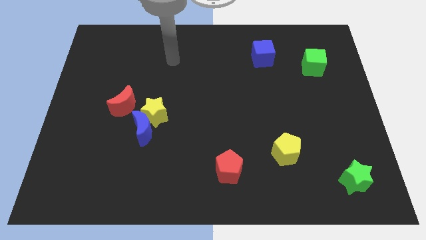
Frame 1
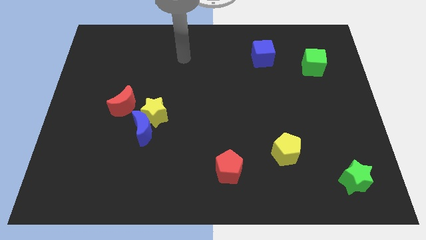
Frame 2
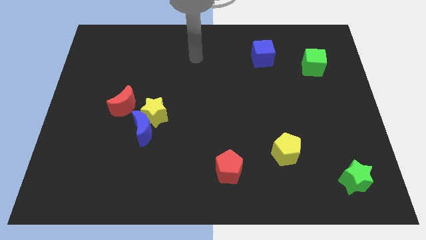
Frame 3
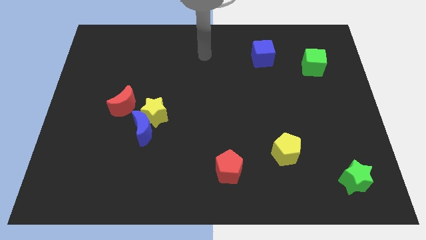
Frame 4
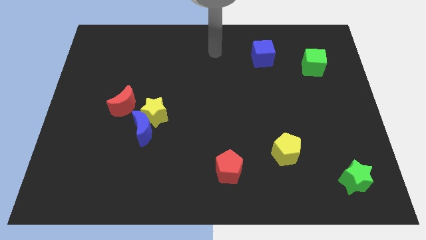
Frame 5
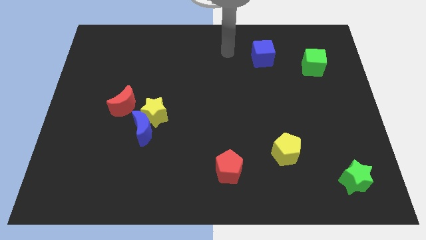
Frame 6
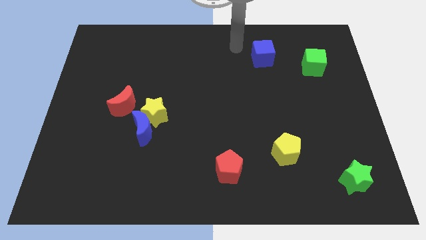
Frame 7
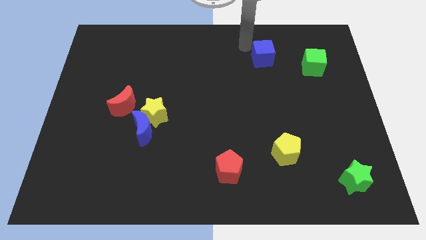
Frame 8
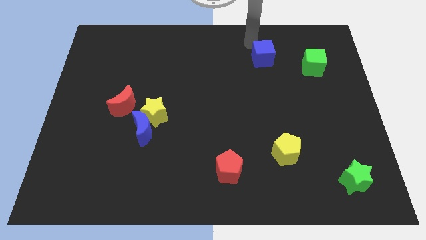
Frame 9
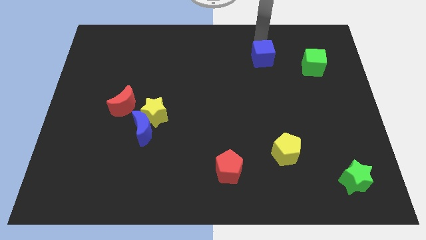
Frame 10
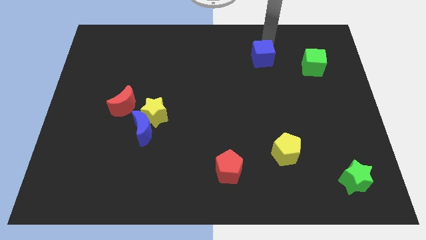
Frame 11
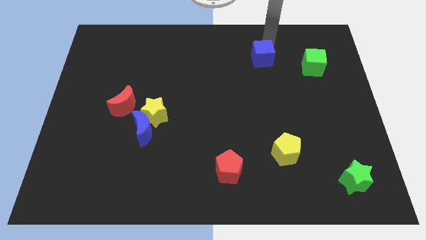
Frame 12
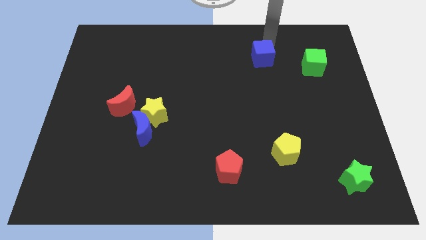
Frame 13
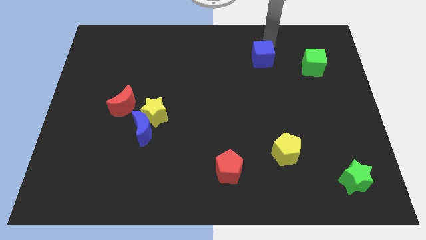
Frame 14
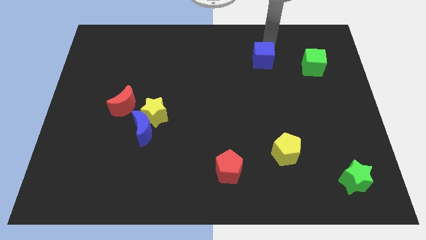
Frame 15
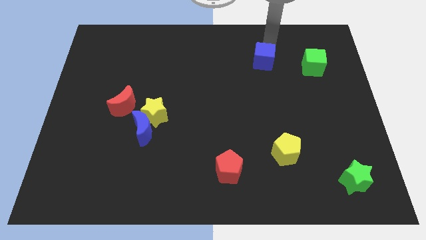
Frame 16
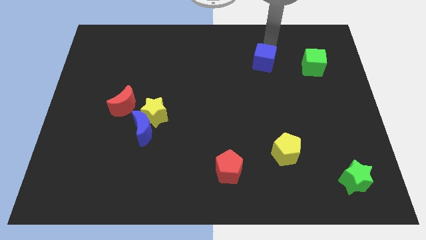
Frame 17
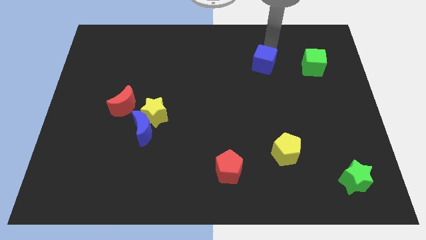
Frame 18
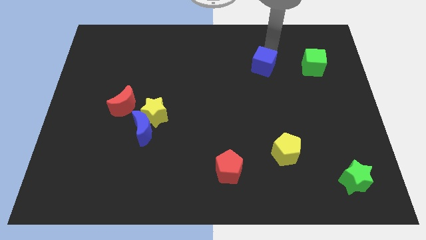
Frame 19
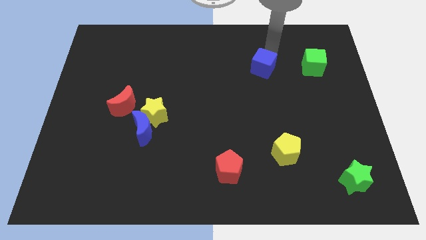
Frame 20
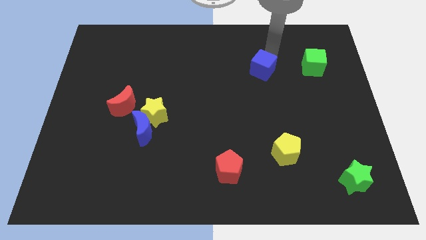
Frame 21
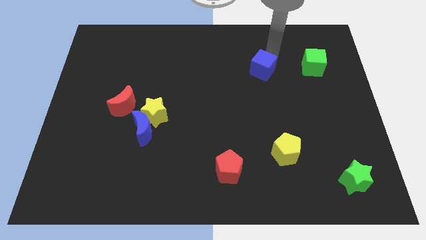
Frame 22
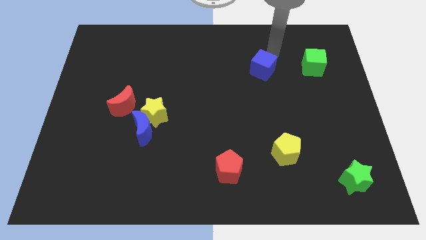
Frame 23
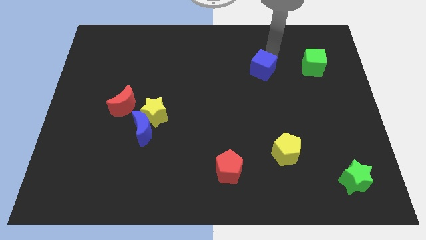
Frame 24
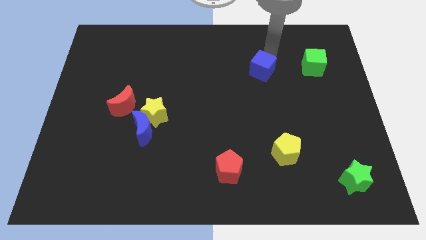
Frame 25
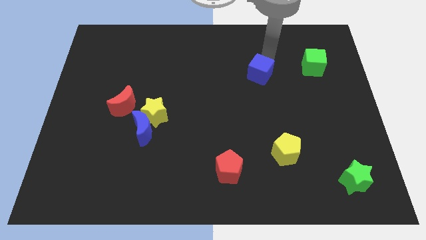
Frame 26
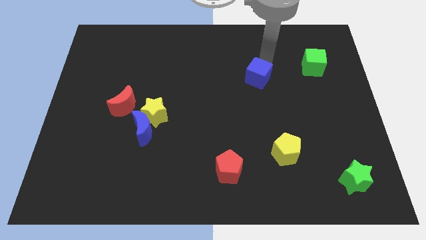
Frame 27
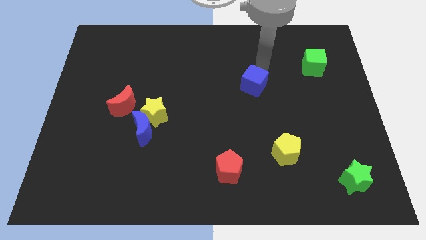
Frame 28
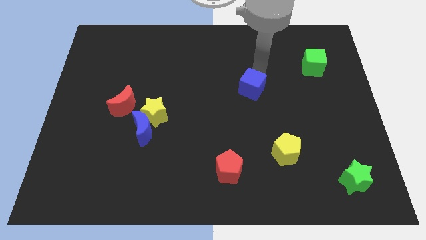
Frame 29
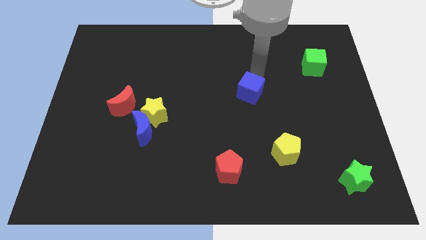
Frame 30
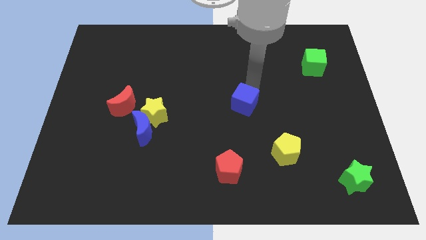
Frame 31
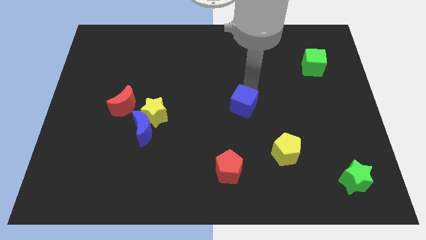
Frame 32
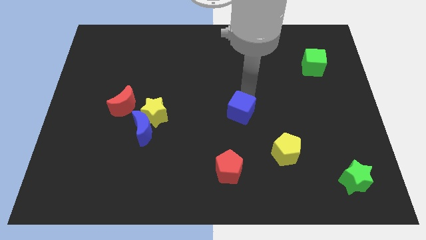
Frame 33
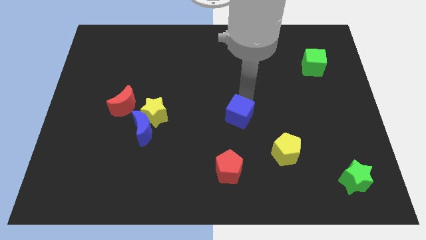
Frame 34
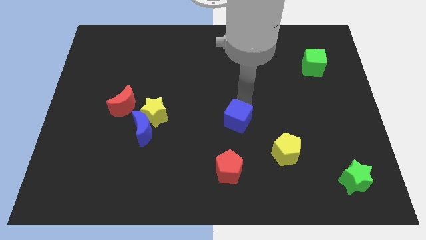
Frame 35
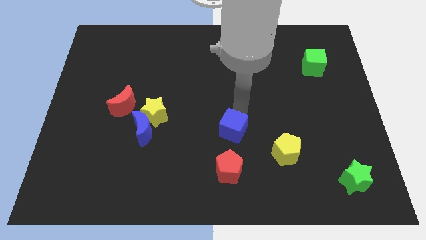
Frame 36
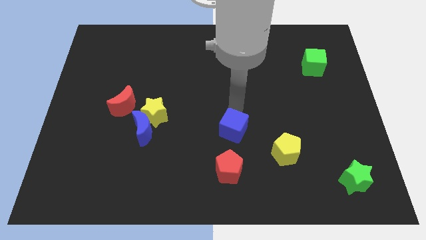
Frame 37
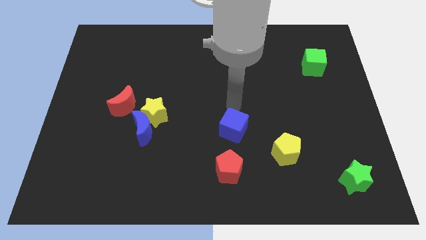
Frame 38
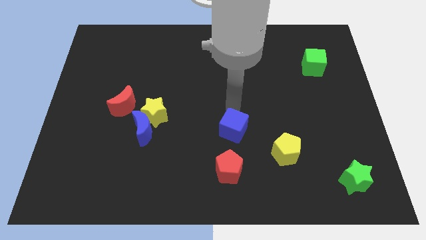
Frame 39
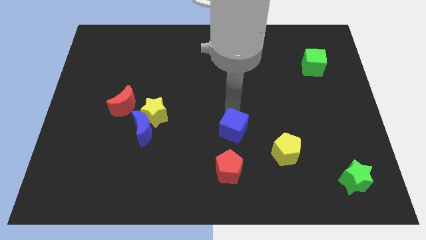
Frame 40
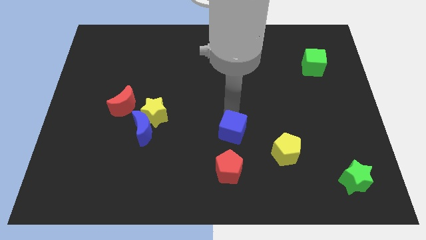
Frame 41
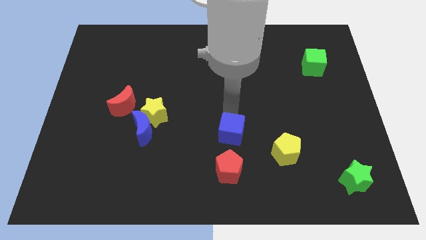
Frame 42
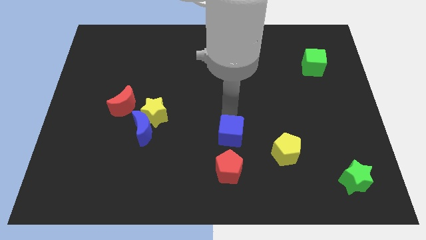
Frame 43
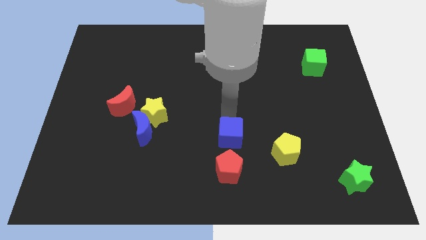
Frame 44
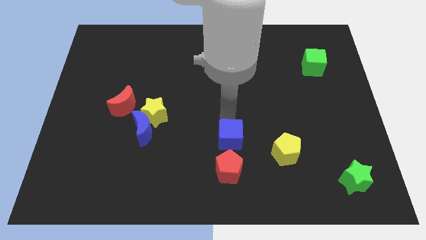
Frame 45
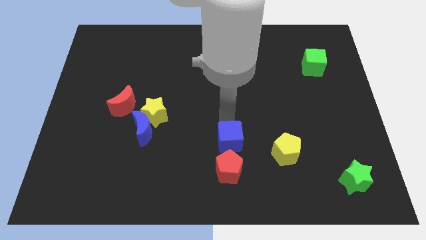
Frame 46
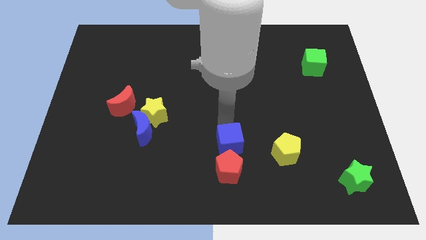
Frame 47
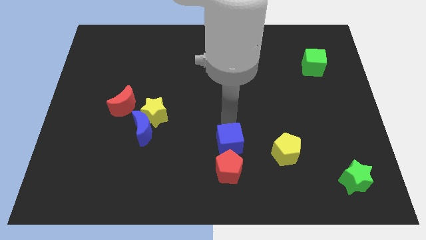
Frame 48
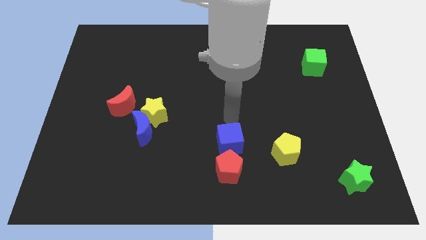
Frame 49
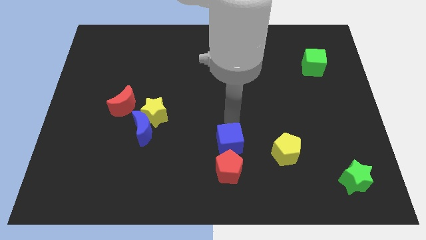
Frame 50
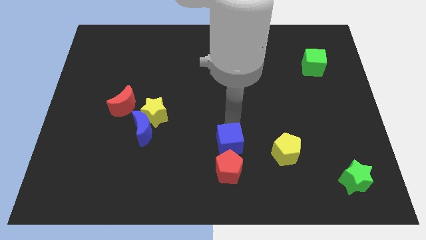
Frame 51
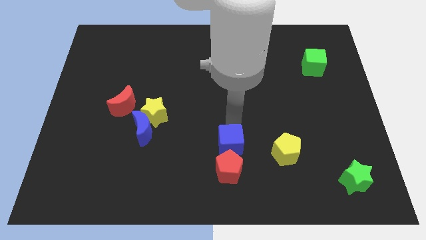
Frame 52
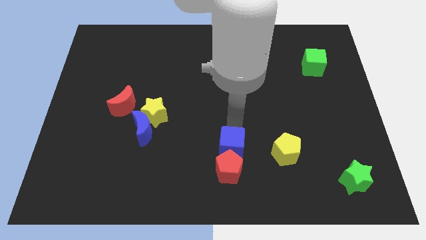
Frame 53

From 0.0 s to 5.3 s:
put the blue cube close to the red pentagon

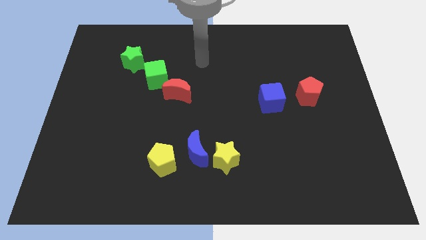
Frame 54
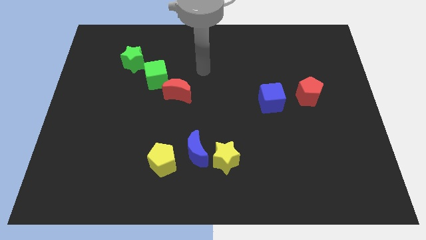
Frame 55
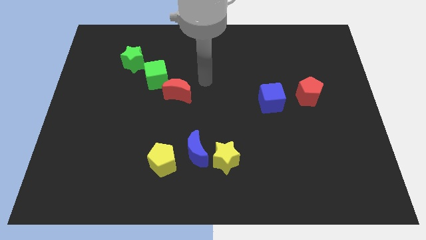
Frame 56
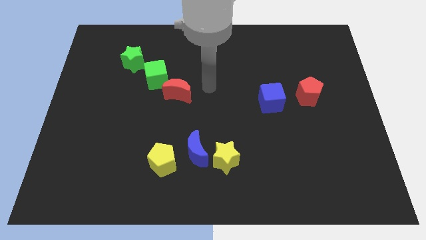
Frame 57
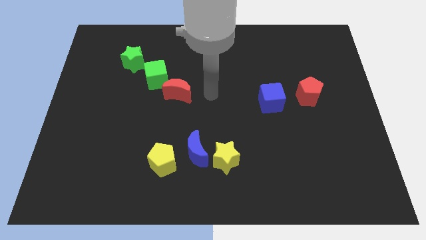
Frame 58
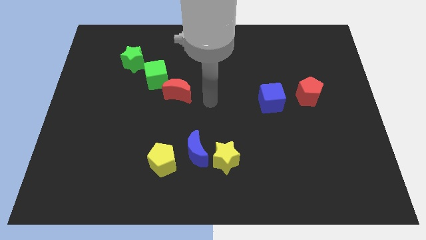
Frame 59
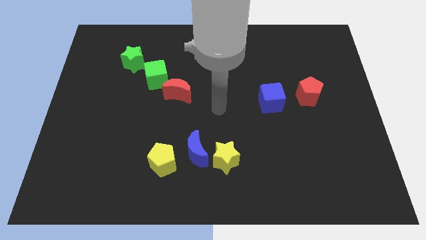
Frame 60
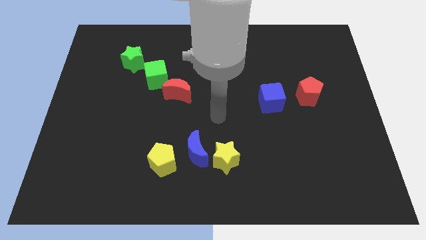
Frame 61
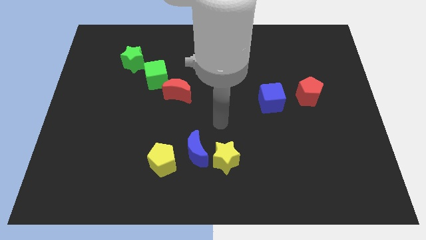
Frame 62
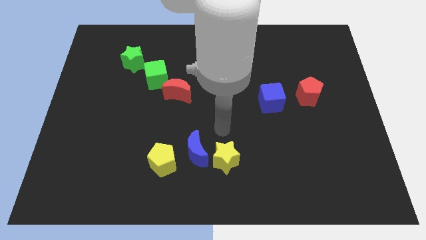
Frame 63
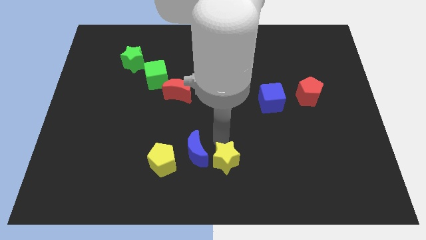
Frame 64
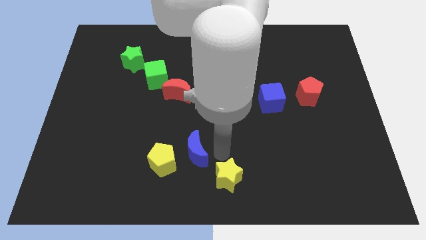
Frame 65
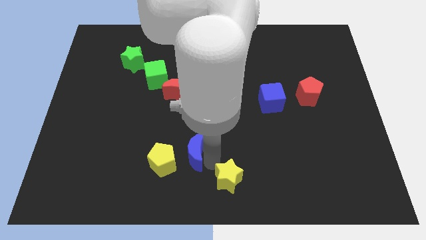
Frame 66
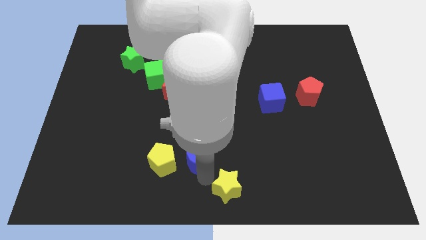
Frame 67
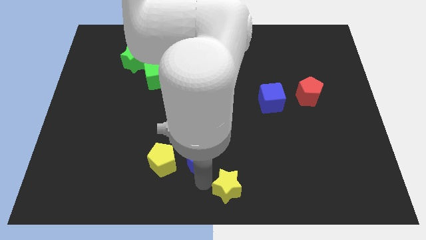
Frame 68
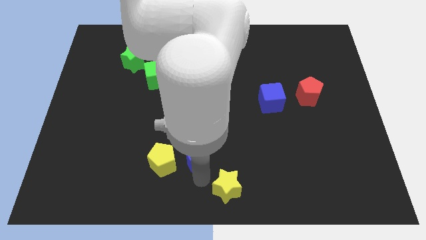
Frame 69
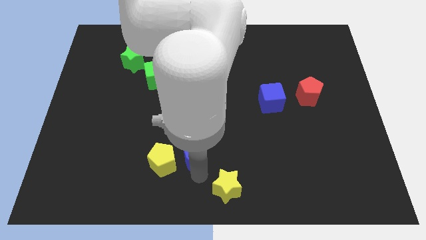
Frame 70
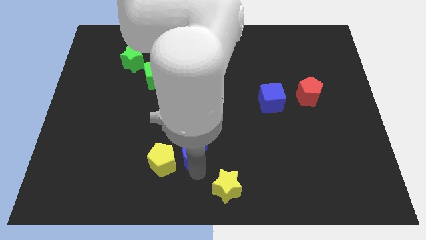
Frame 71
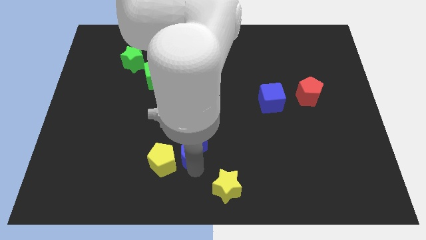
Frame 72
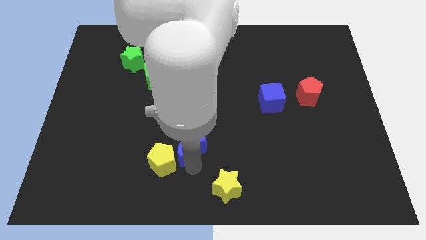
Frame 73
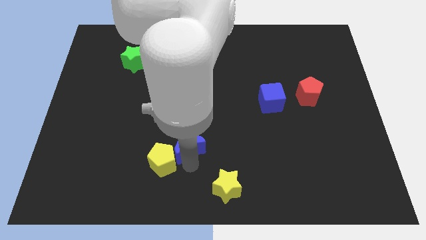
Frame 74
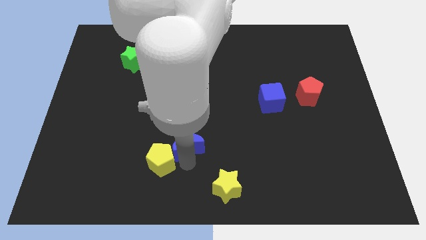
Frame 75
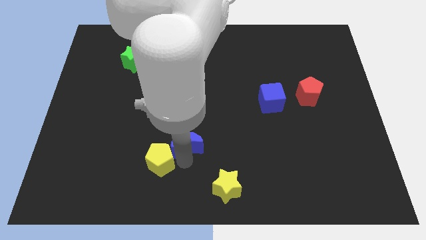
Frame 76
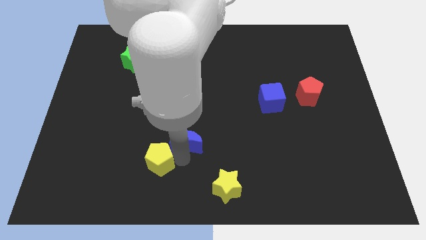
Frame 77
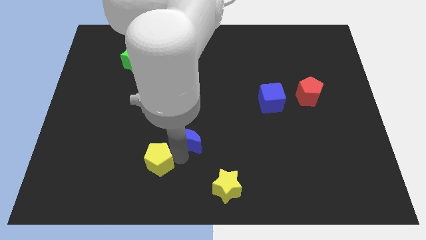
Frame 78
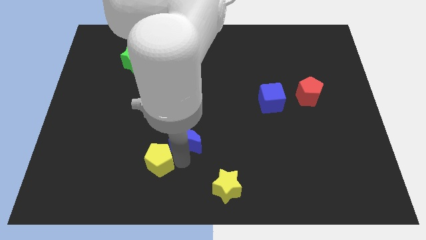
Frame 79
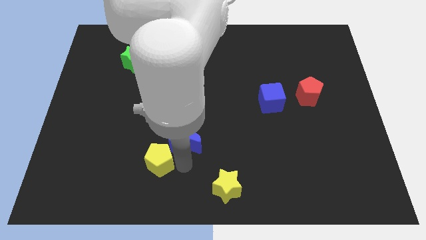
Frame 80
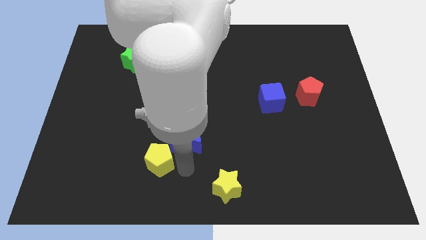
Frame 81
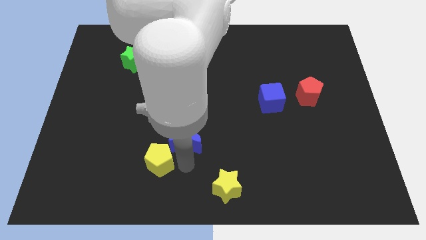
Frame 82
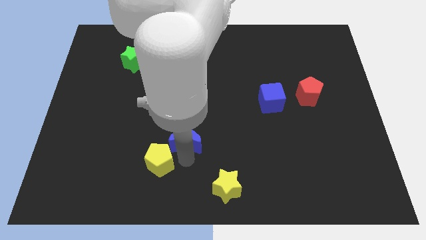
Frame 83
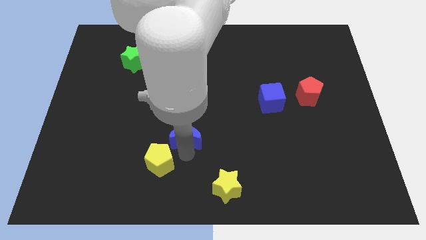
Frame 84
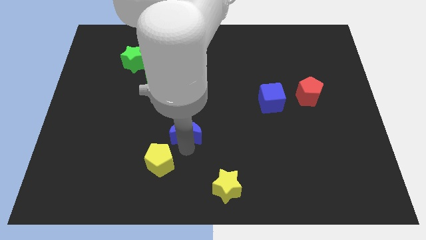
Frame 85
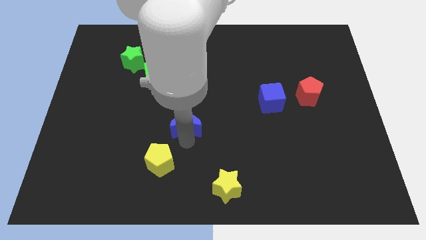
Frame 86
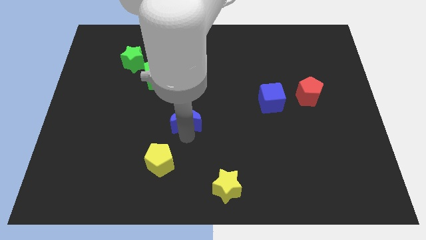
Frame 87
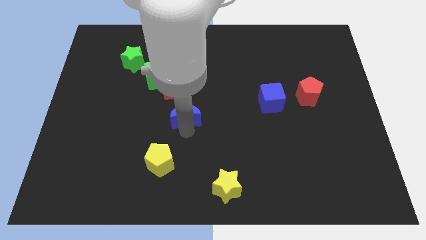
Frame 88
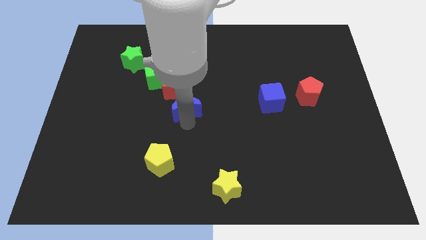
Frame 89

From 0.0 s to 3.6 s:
move the blue moon to the red moon
